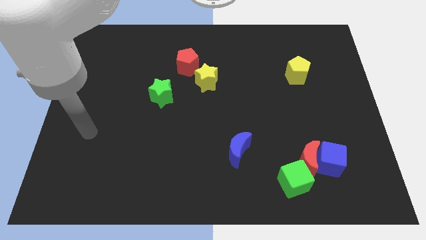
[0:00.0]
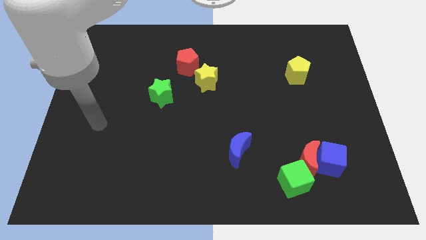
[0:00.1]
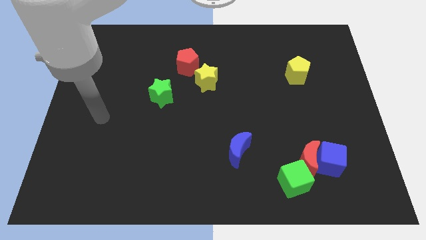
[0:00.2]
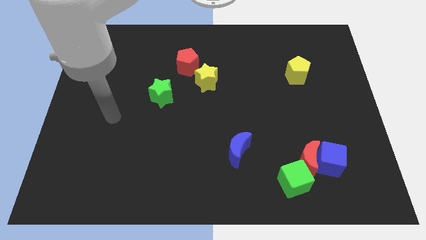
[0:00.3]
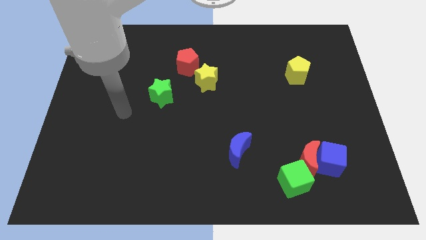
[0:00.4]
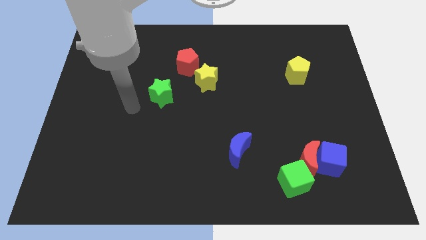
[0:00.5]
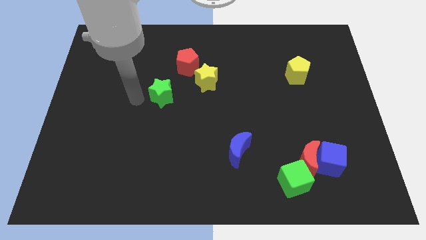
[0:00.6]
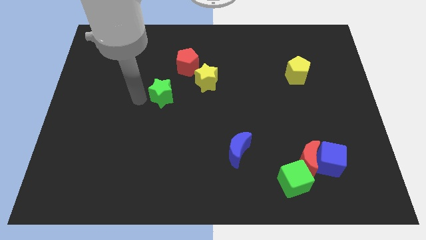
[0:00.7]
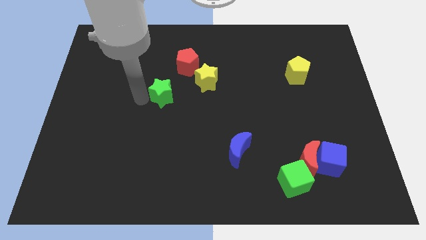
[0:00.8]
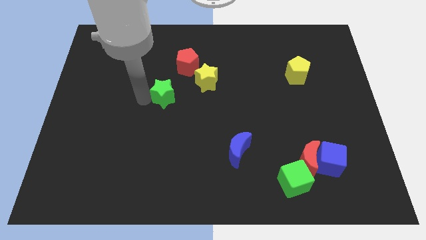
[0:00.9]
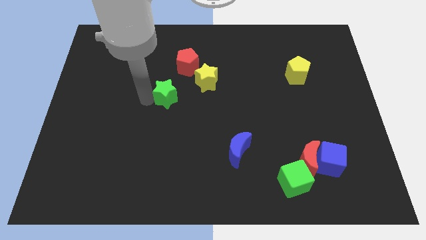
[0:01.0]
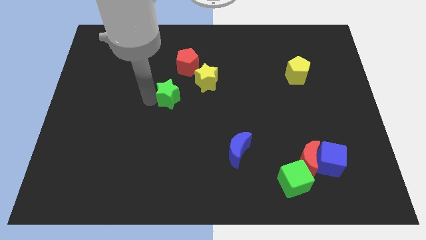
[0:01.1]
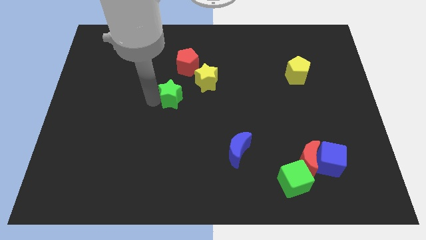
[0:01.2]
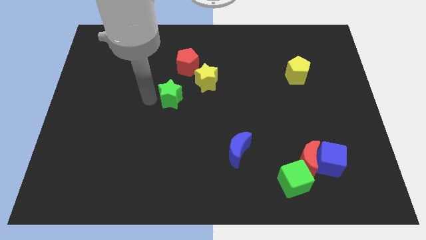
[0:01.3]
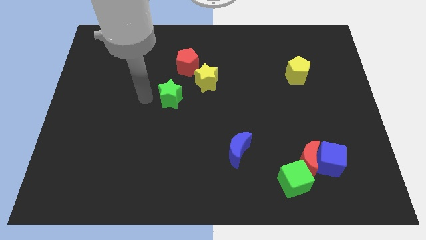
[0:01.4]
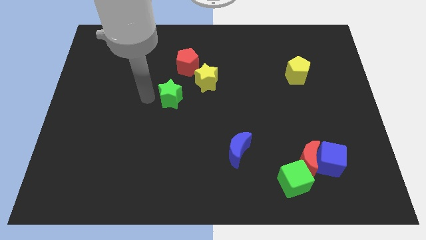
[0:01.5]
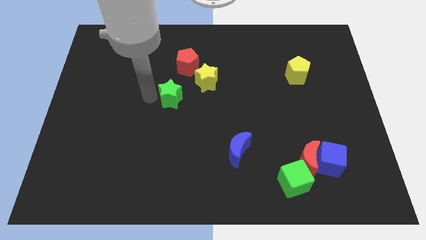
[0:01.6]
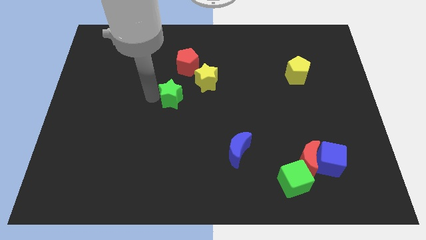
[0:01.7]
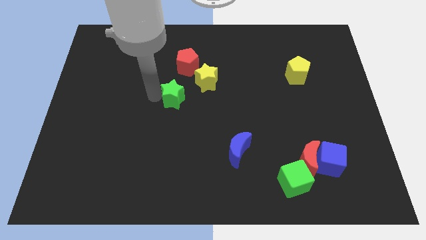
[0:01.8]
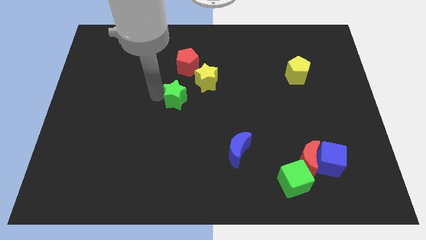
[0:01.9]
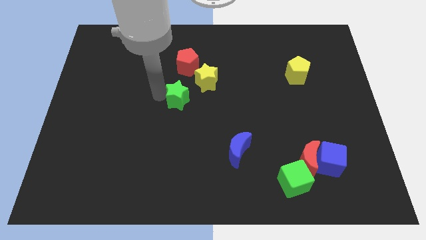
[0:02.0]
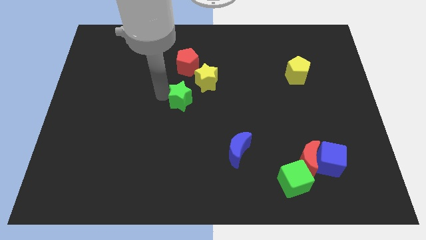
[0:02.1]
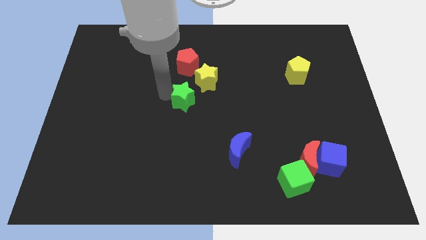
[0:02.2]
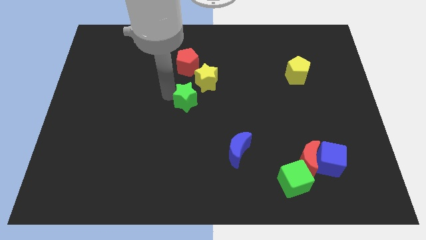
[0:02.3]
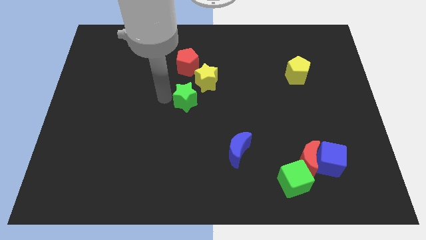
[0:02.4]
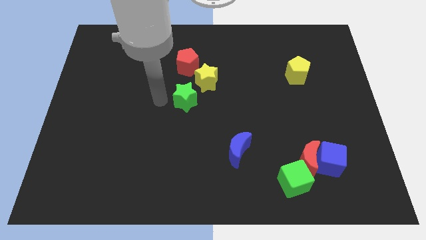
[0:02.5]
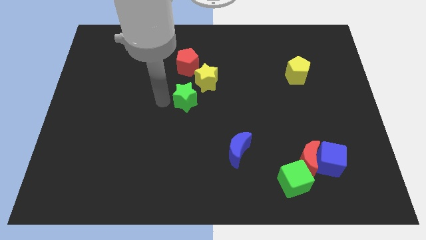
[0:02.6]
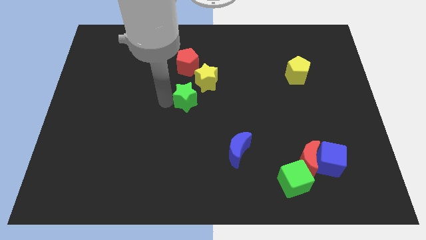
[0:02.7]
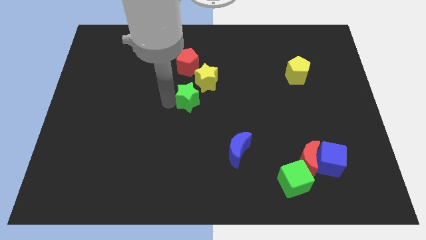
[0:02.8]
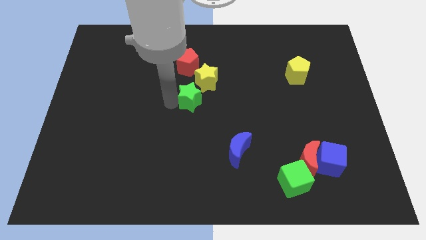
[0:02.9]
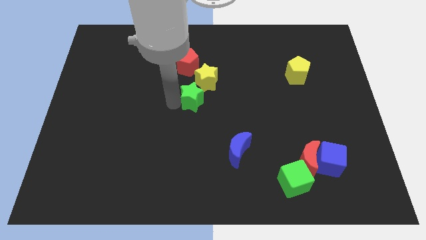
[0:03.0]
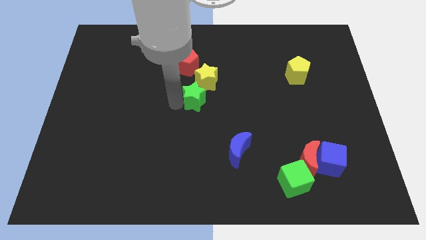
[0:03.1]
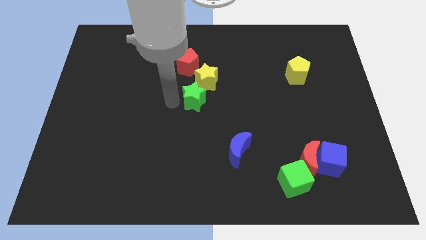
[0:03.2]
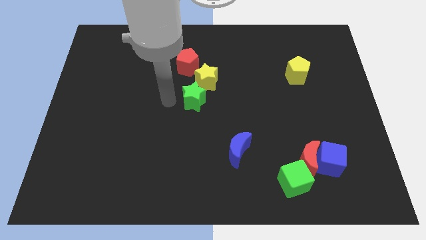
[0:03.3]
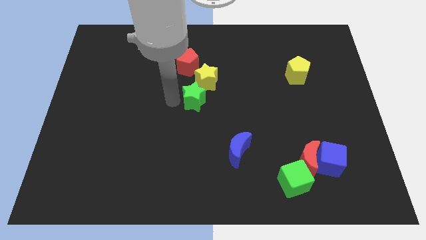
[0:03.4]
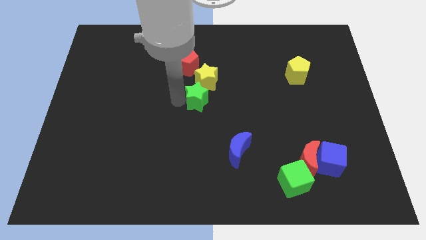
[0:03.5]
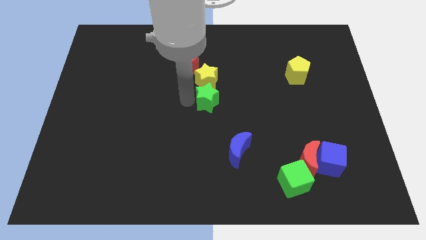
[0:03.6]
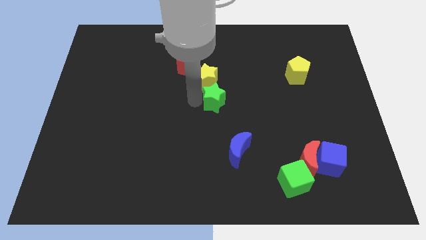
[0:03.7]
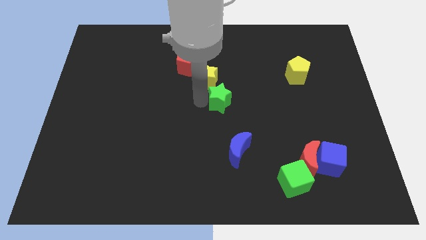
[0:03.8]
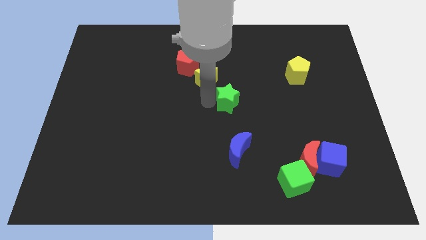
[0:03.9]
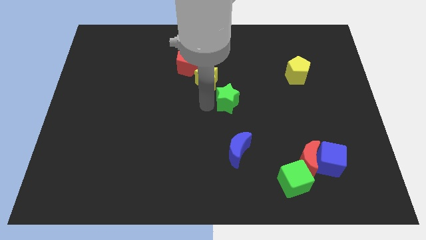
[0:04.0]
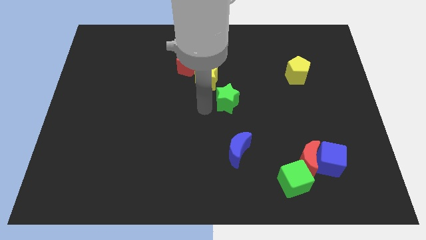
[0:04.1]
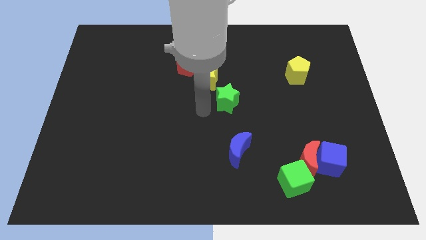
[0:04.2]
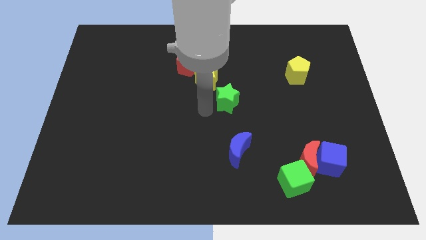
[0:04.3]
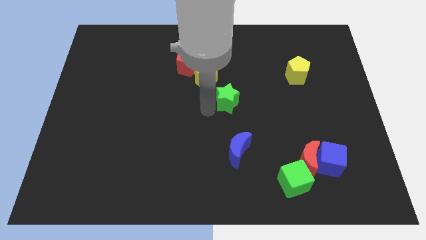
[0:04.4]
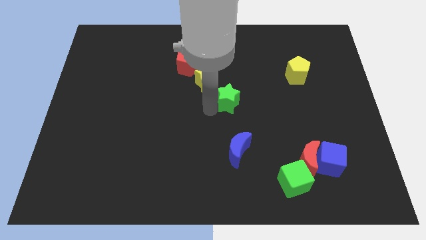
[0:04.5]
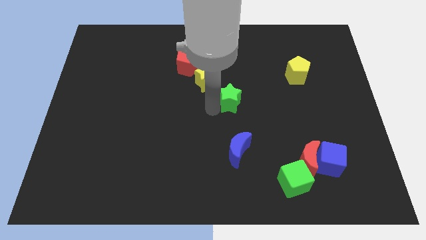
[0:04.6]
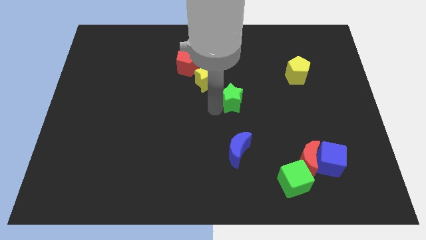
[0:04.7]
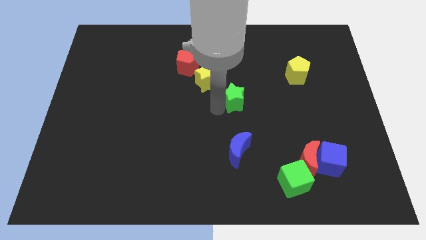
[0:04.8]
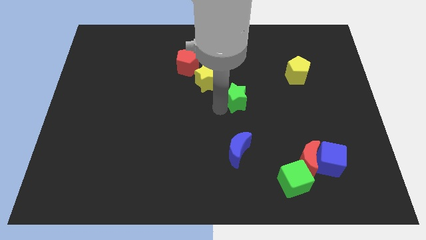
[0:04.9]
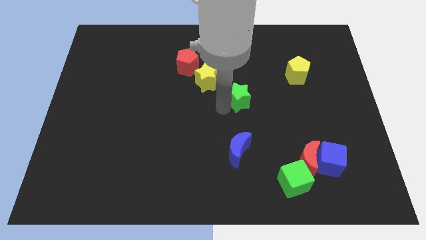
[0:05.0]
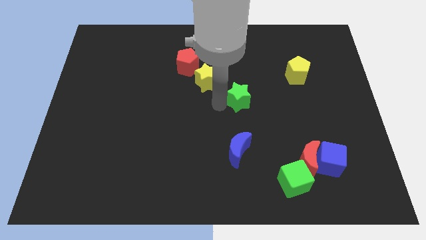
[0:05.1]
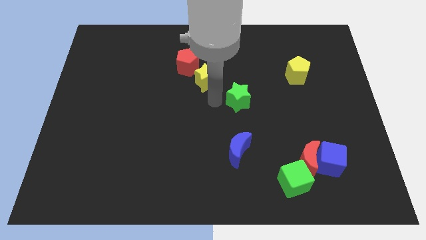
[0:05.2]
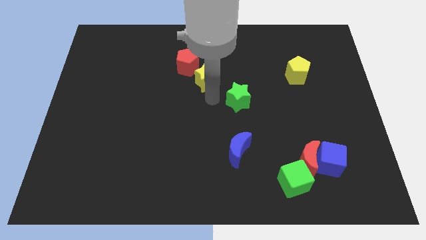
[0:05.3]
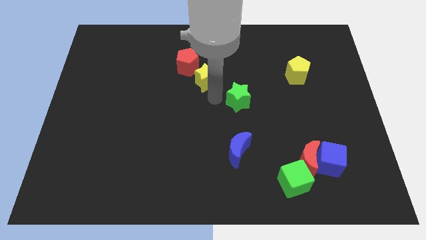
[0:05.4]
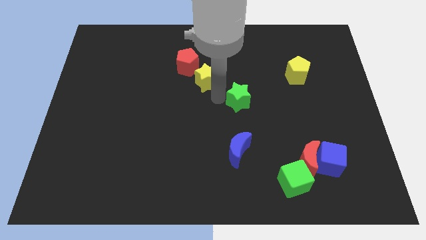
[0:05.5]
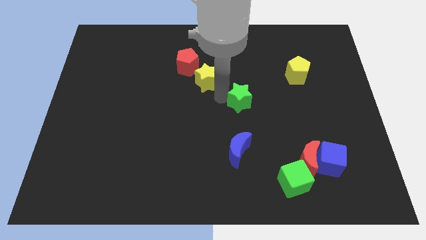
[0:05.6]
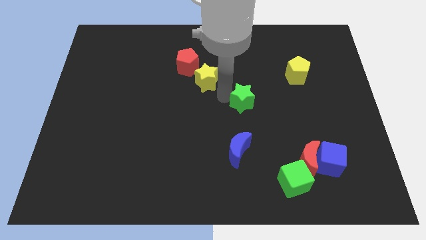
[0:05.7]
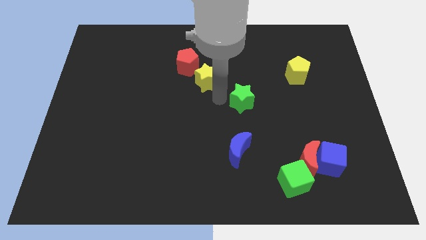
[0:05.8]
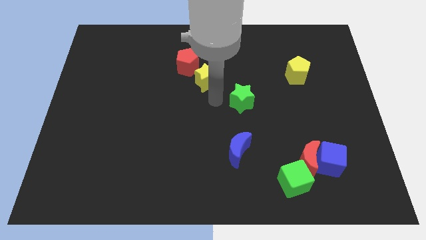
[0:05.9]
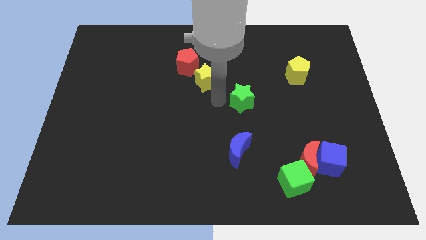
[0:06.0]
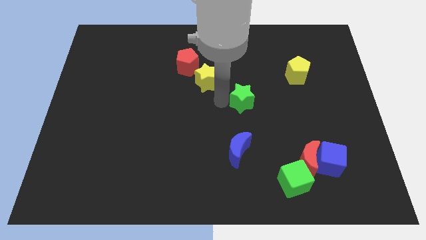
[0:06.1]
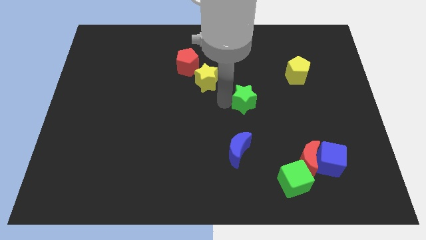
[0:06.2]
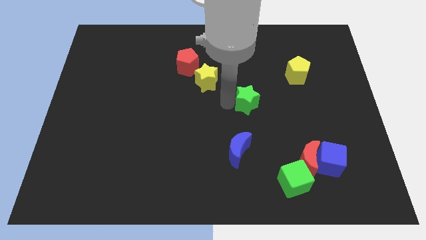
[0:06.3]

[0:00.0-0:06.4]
push the green star to the right

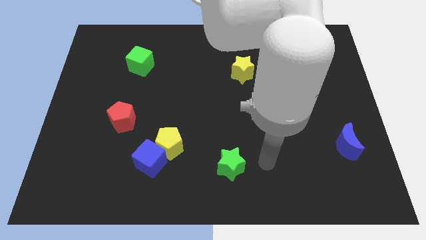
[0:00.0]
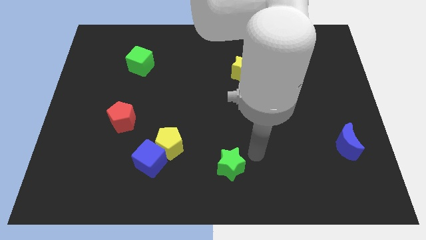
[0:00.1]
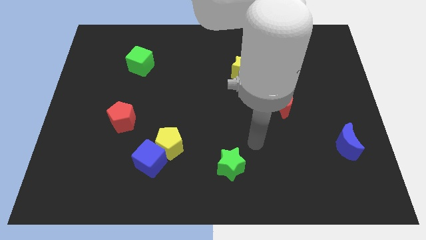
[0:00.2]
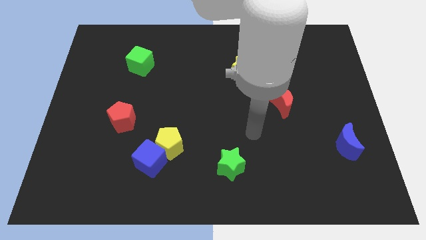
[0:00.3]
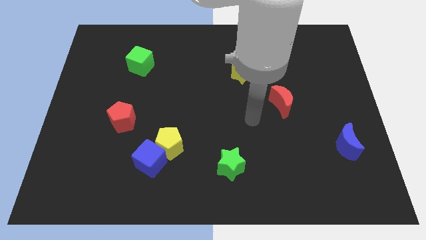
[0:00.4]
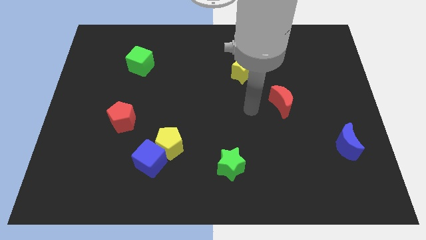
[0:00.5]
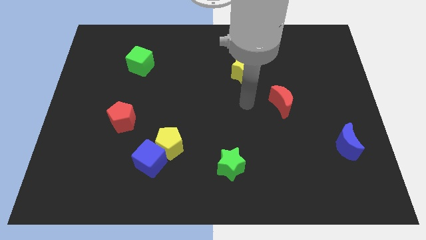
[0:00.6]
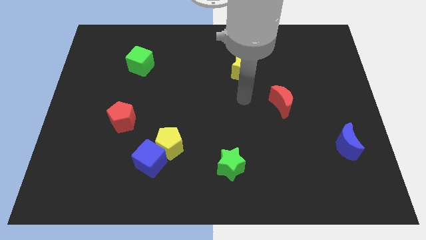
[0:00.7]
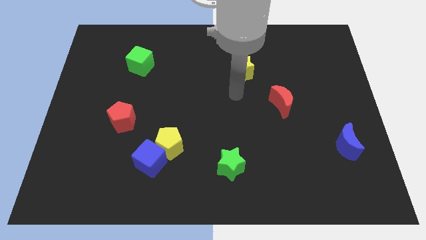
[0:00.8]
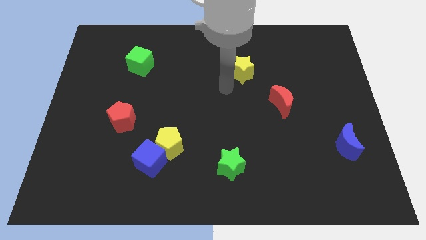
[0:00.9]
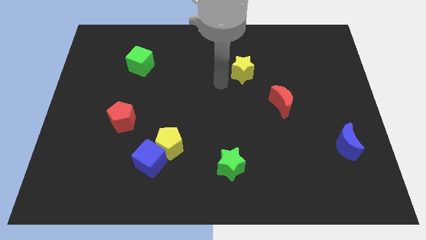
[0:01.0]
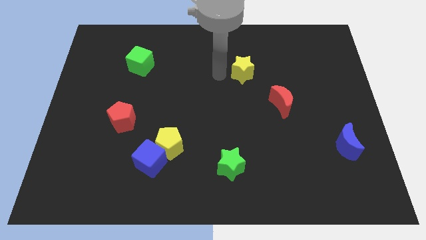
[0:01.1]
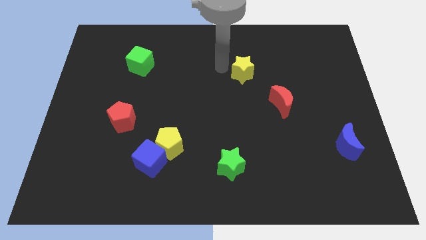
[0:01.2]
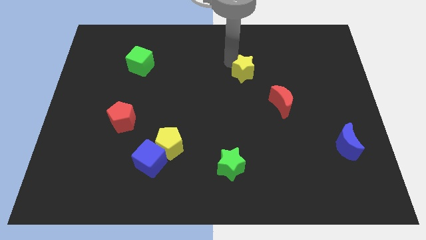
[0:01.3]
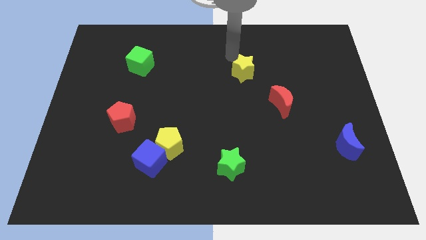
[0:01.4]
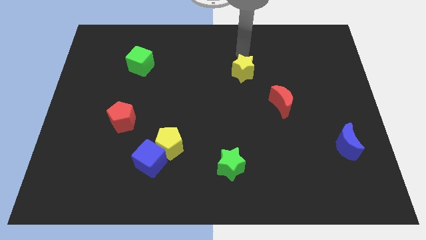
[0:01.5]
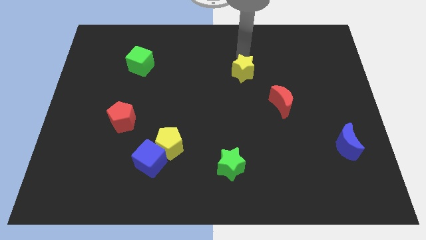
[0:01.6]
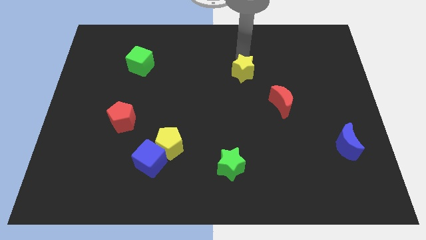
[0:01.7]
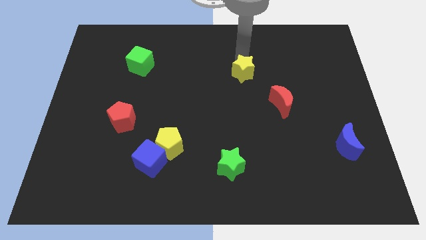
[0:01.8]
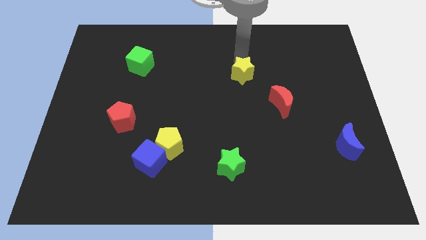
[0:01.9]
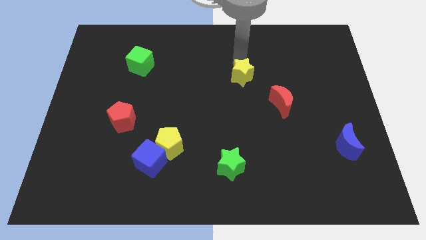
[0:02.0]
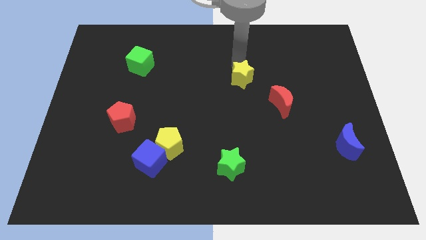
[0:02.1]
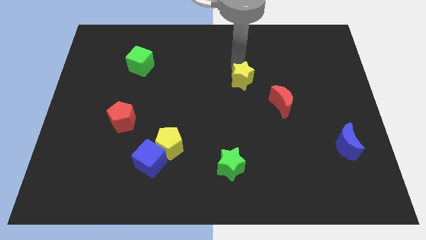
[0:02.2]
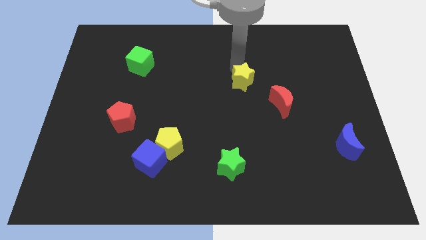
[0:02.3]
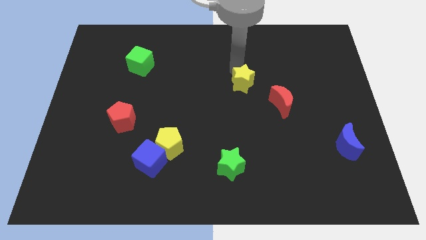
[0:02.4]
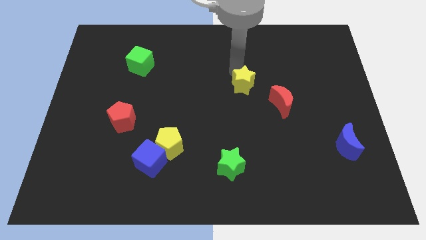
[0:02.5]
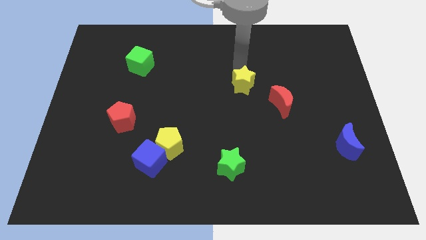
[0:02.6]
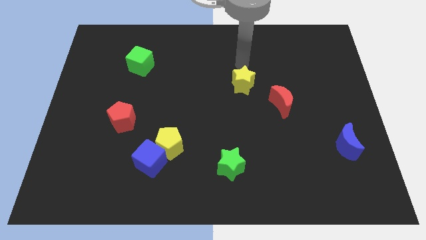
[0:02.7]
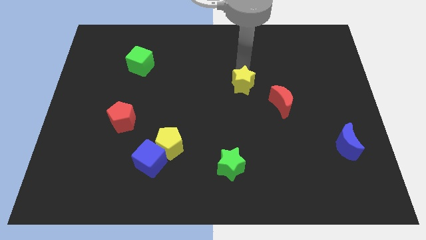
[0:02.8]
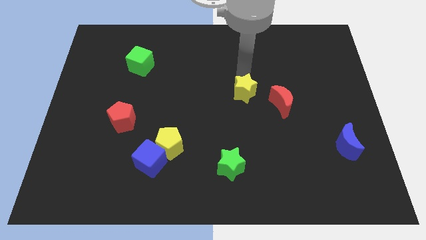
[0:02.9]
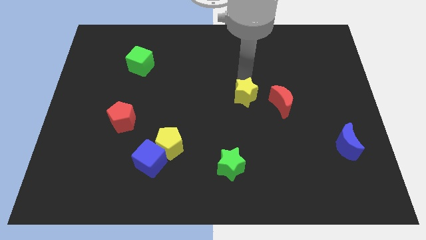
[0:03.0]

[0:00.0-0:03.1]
move the yellow star a little down
